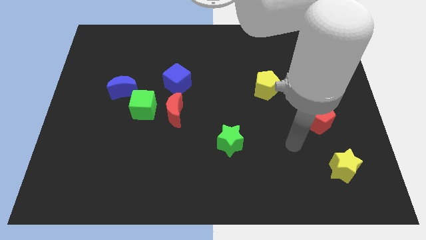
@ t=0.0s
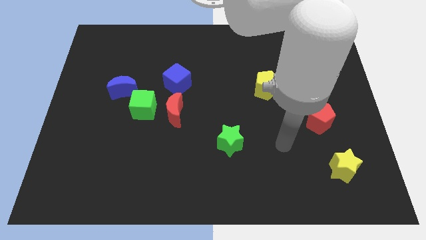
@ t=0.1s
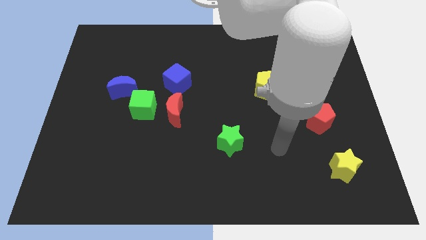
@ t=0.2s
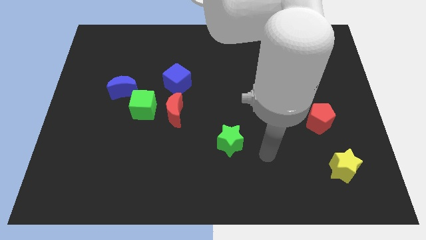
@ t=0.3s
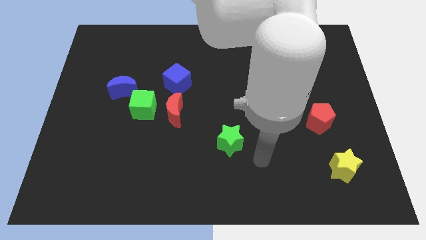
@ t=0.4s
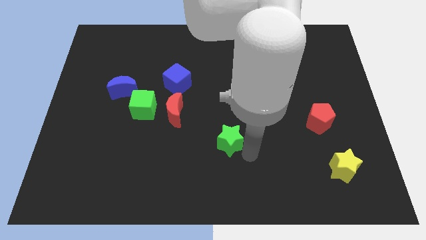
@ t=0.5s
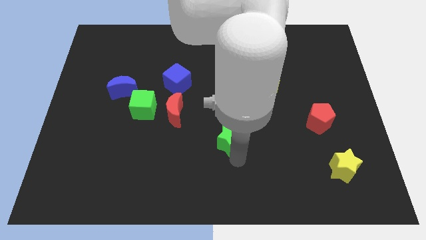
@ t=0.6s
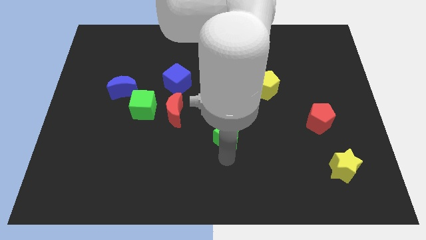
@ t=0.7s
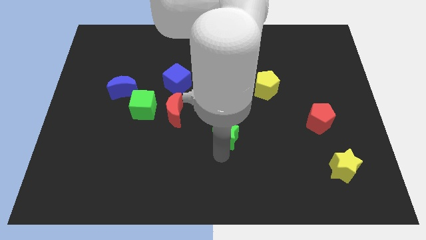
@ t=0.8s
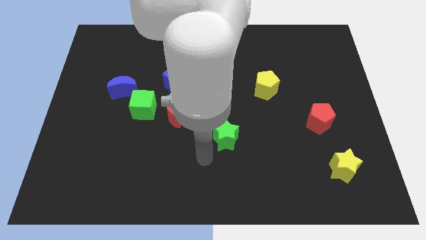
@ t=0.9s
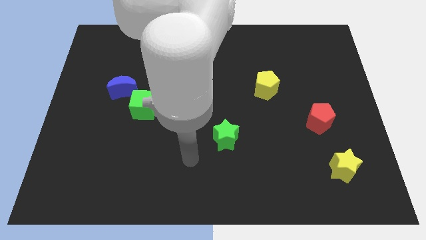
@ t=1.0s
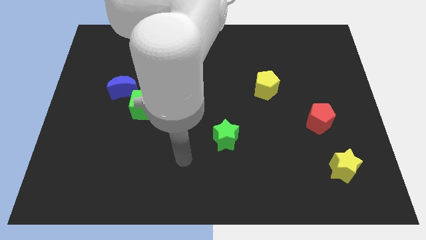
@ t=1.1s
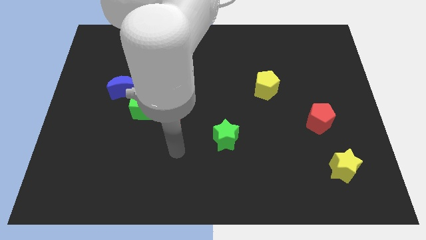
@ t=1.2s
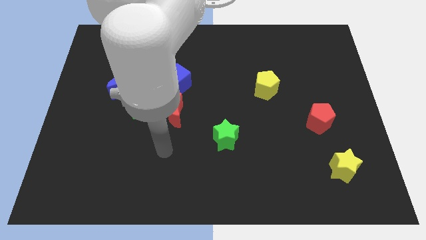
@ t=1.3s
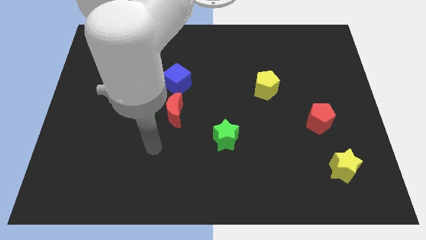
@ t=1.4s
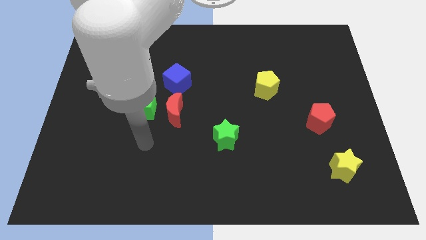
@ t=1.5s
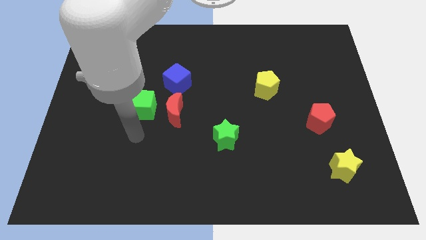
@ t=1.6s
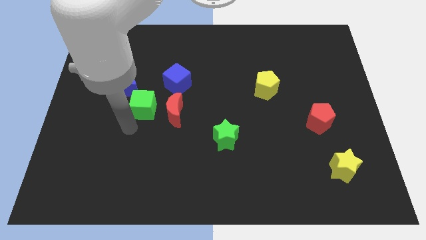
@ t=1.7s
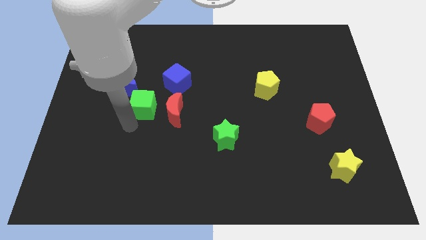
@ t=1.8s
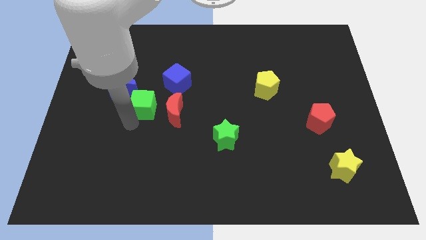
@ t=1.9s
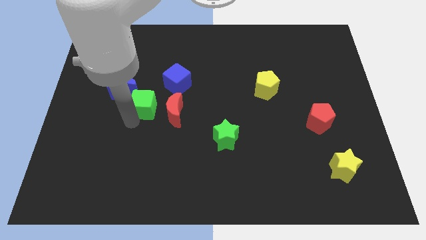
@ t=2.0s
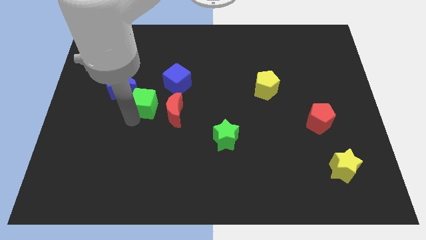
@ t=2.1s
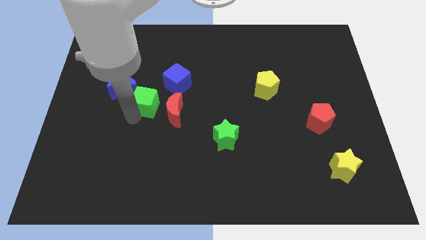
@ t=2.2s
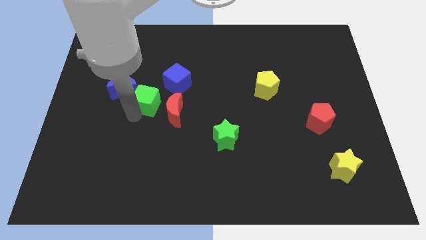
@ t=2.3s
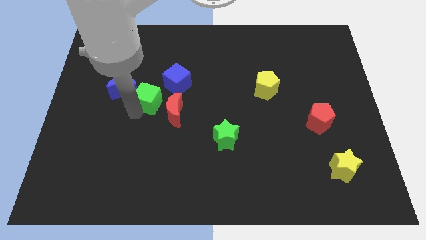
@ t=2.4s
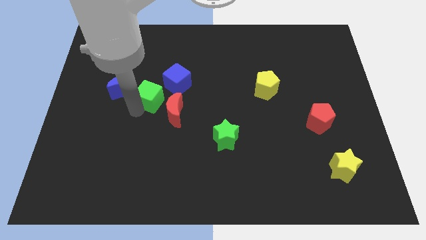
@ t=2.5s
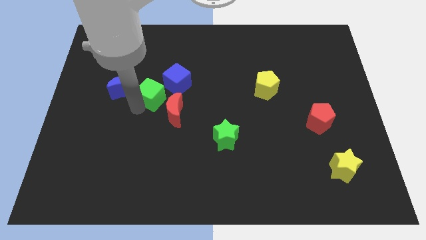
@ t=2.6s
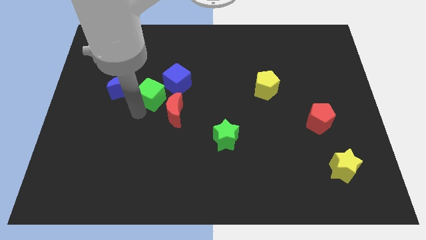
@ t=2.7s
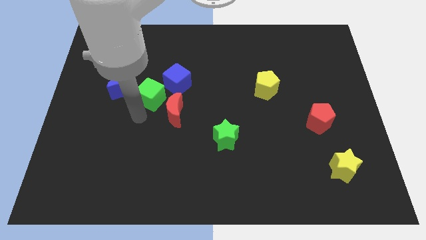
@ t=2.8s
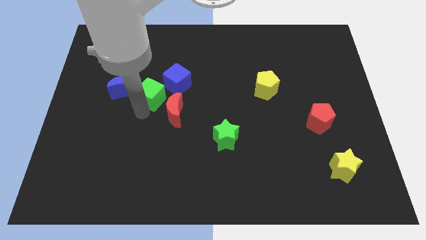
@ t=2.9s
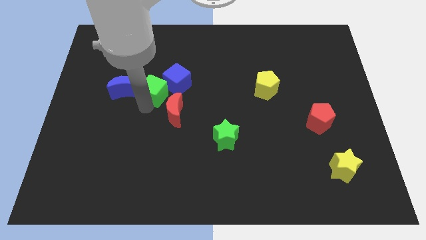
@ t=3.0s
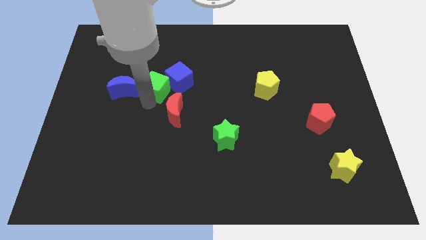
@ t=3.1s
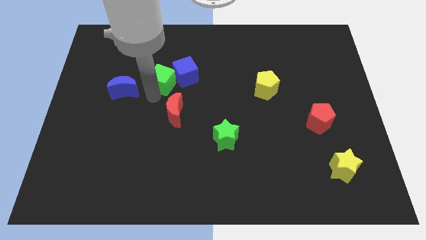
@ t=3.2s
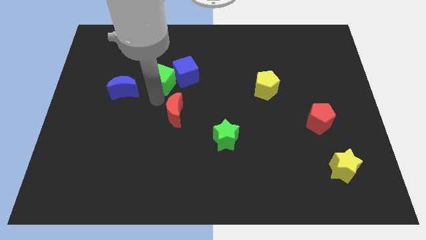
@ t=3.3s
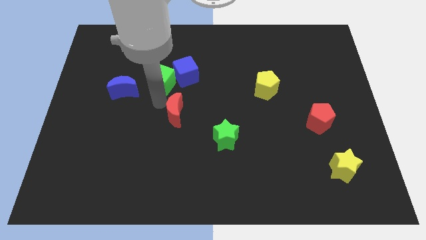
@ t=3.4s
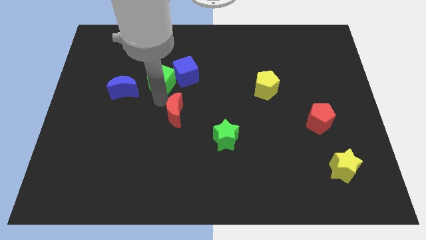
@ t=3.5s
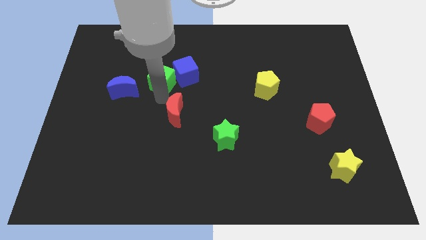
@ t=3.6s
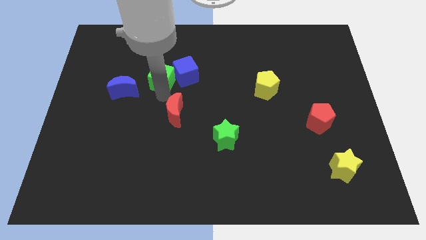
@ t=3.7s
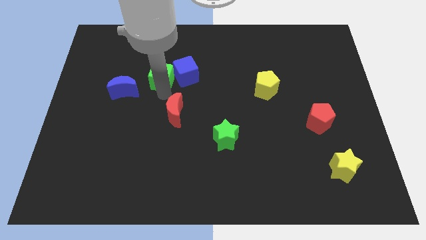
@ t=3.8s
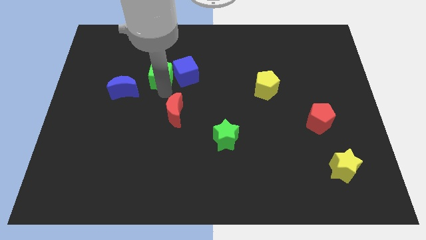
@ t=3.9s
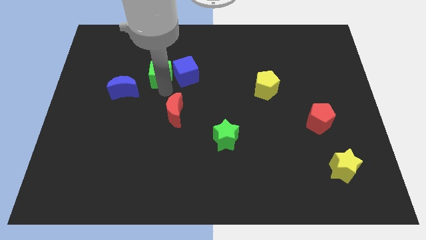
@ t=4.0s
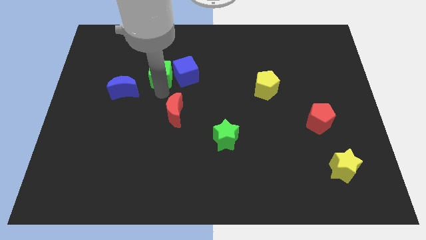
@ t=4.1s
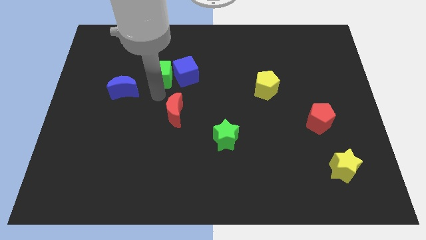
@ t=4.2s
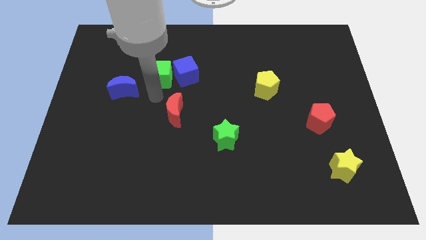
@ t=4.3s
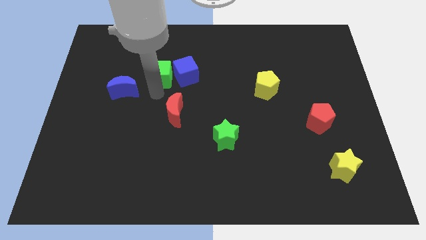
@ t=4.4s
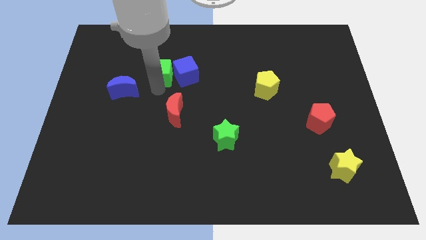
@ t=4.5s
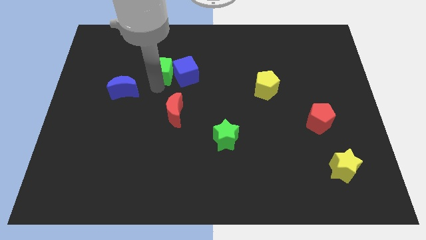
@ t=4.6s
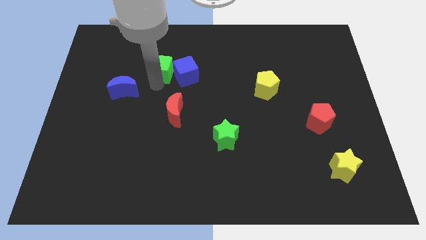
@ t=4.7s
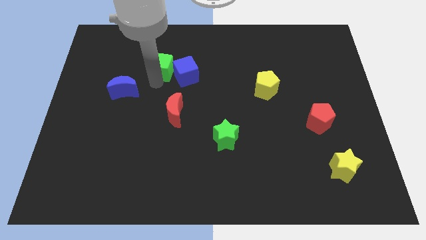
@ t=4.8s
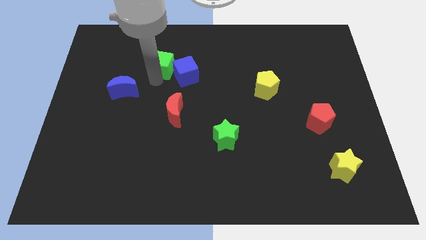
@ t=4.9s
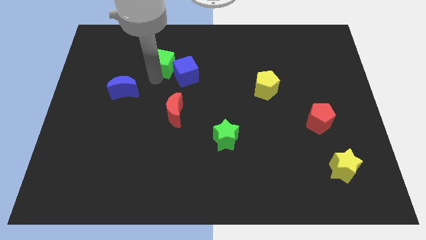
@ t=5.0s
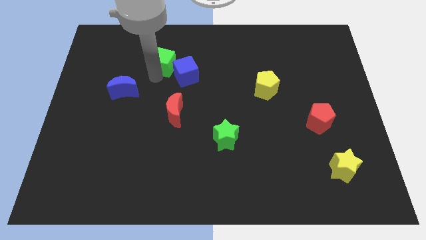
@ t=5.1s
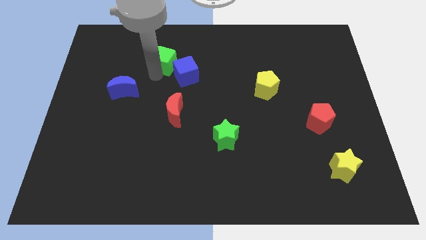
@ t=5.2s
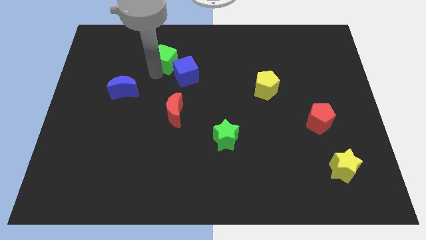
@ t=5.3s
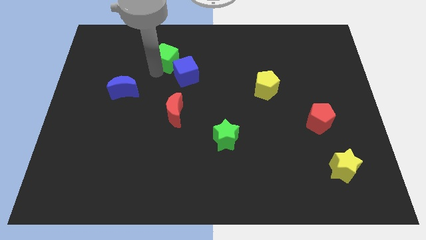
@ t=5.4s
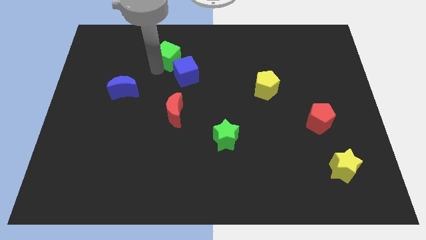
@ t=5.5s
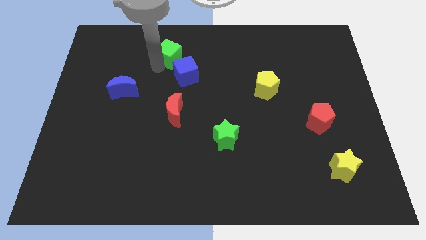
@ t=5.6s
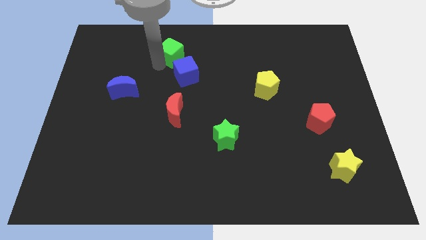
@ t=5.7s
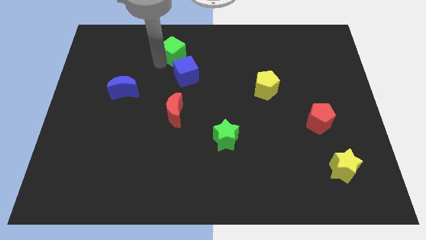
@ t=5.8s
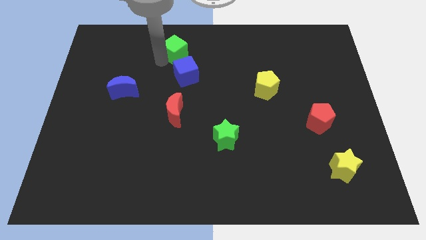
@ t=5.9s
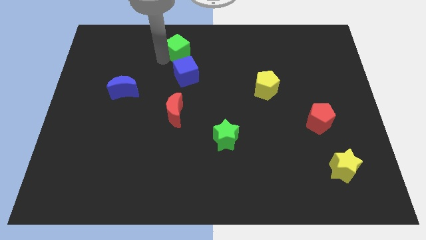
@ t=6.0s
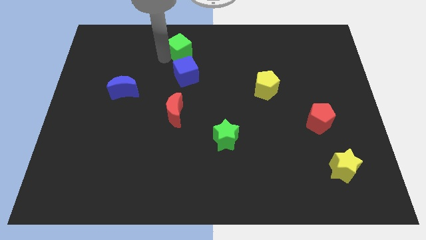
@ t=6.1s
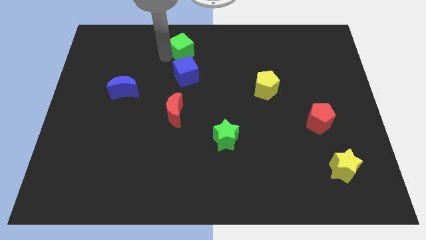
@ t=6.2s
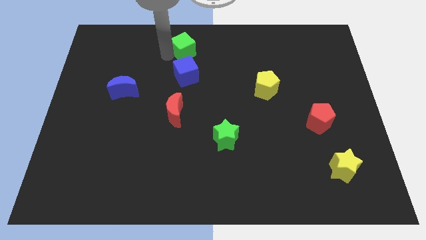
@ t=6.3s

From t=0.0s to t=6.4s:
slide the green cube to the top side
